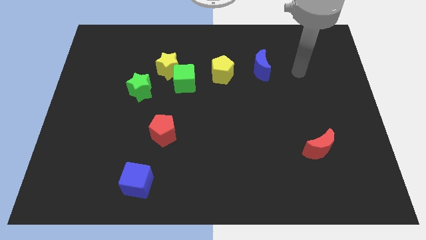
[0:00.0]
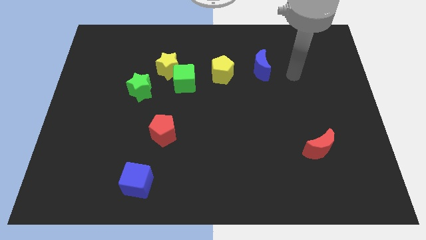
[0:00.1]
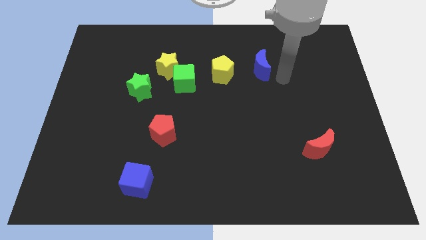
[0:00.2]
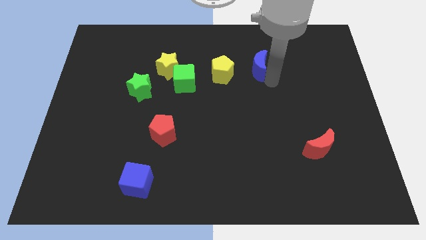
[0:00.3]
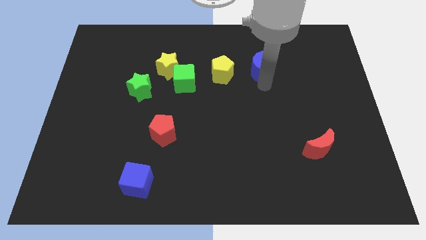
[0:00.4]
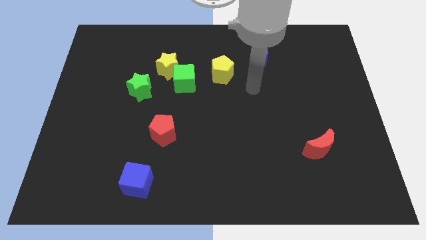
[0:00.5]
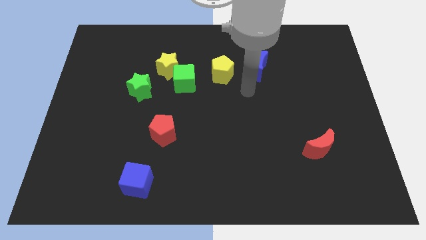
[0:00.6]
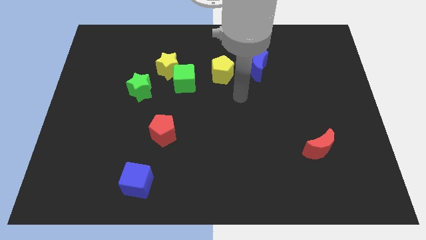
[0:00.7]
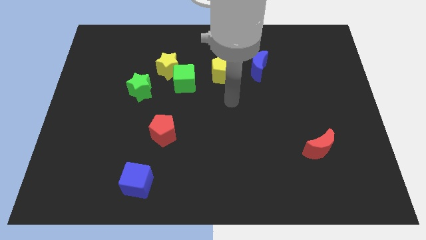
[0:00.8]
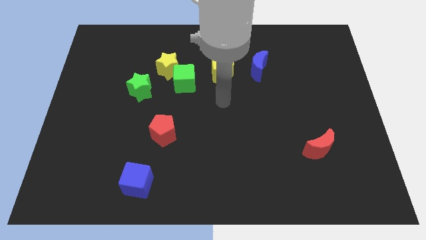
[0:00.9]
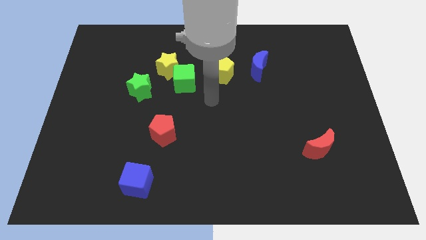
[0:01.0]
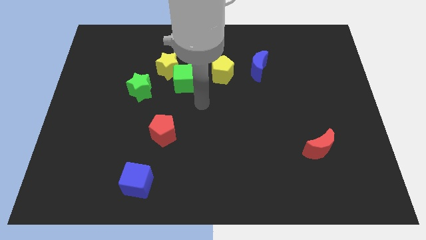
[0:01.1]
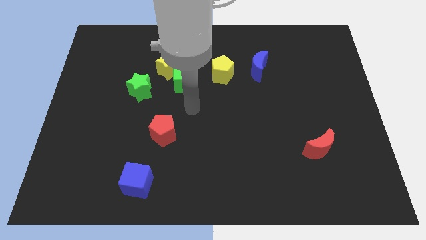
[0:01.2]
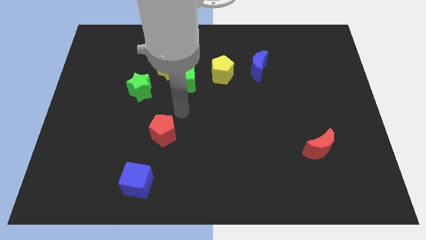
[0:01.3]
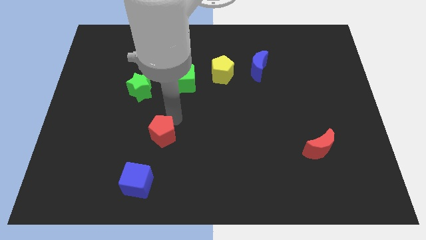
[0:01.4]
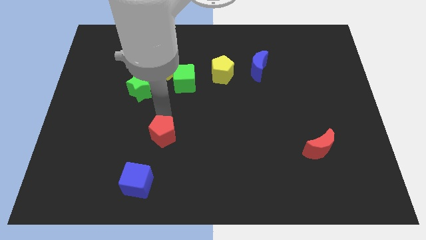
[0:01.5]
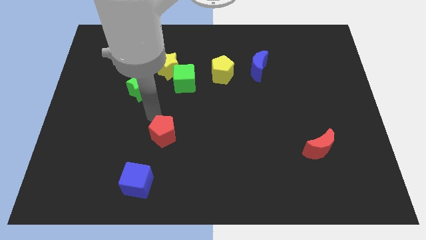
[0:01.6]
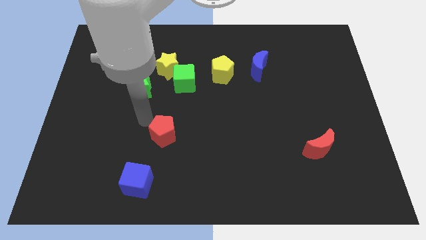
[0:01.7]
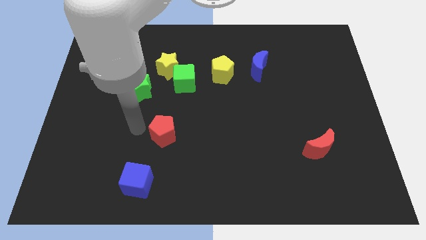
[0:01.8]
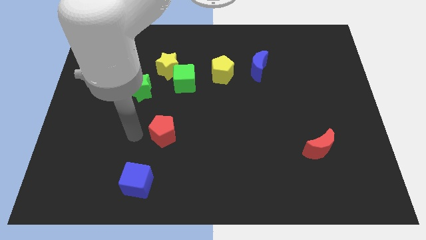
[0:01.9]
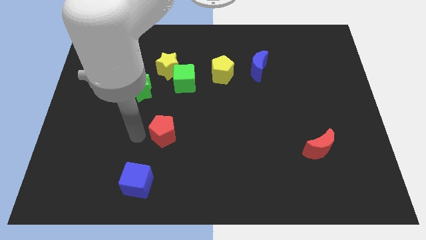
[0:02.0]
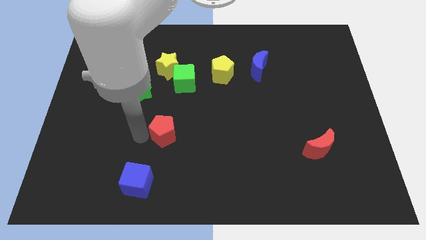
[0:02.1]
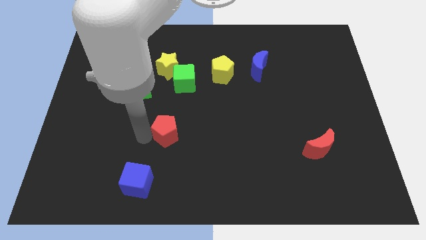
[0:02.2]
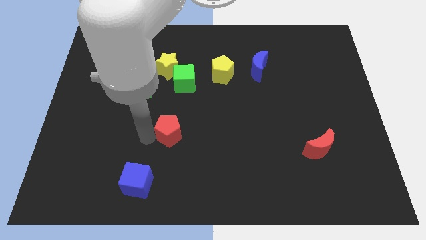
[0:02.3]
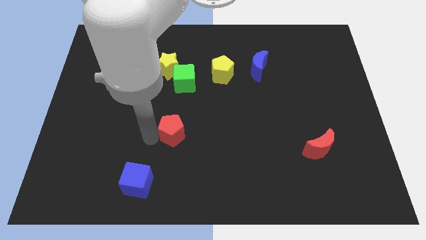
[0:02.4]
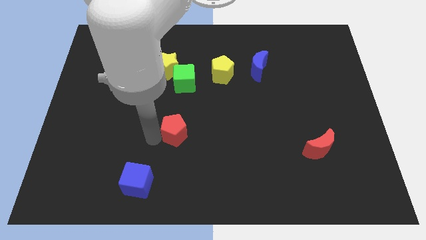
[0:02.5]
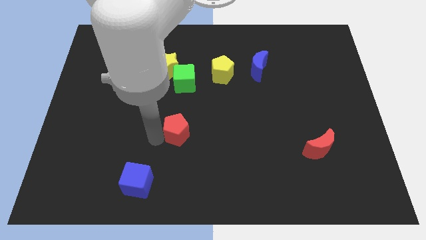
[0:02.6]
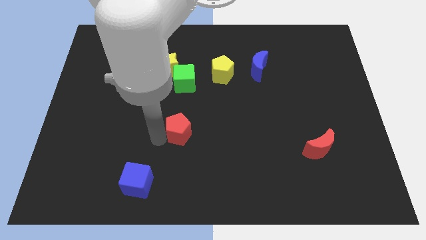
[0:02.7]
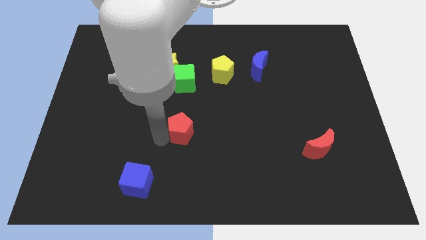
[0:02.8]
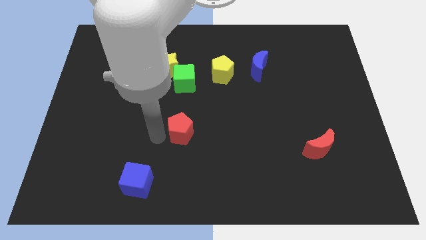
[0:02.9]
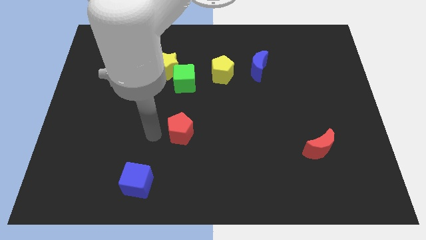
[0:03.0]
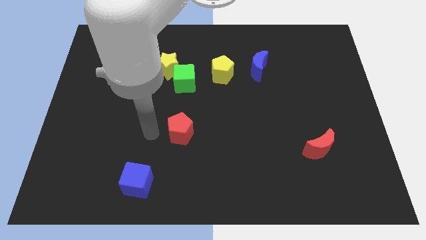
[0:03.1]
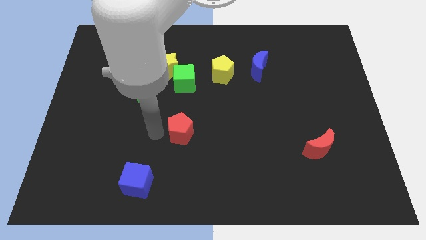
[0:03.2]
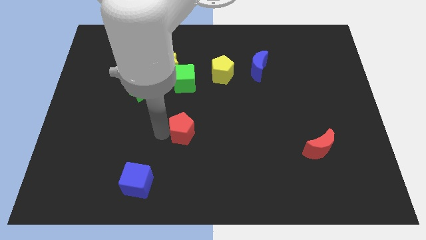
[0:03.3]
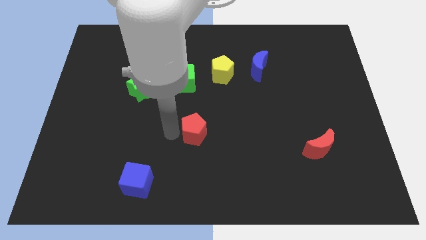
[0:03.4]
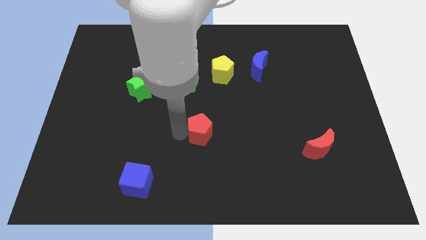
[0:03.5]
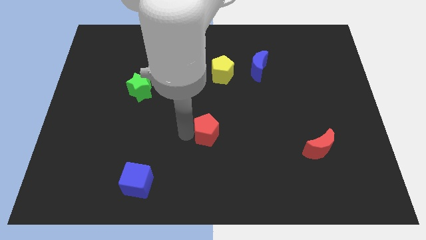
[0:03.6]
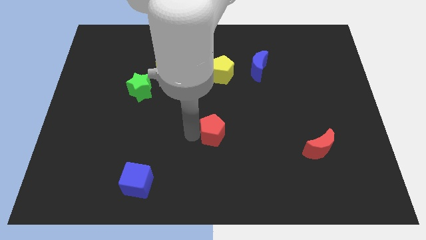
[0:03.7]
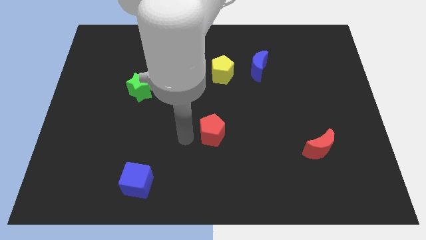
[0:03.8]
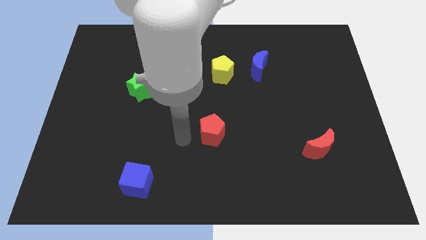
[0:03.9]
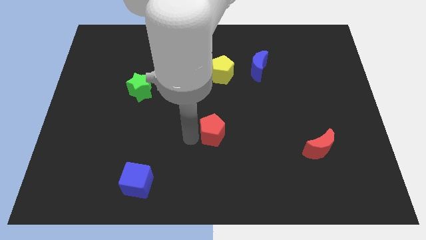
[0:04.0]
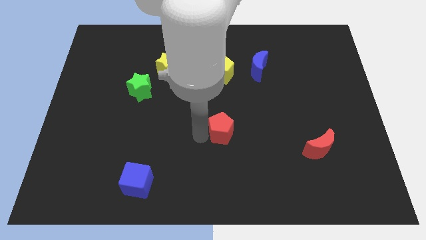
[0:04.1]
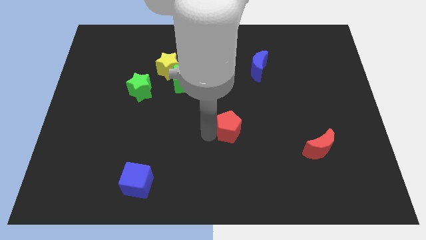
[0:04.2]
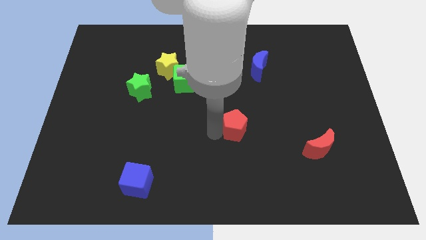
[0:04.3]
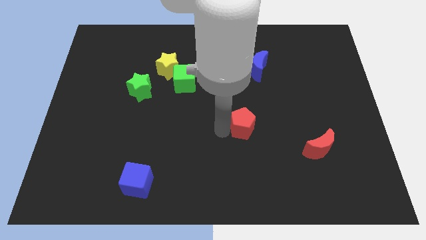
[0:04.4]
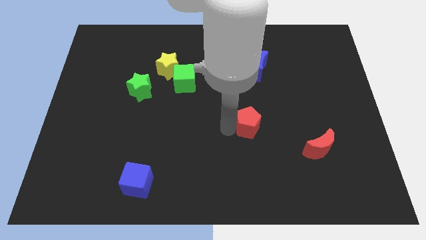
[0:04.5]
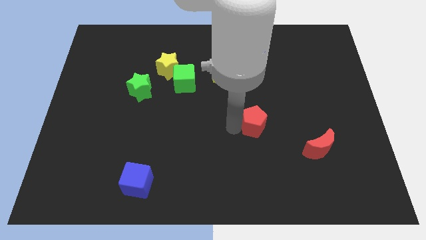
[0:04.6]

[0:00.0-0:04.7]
slide the red pentagon right

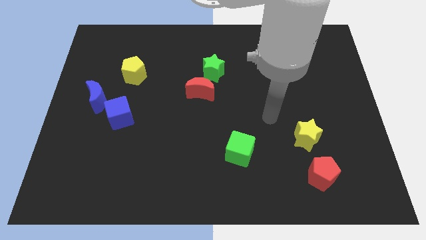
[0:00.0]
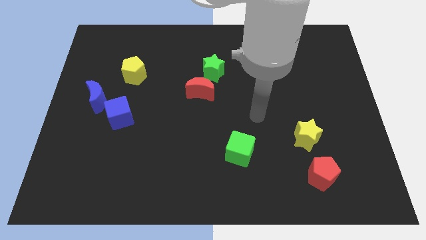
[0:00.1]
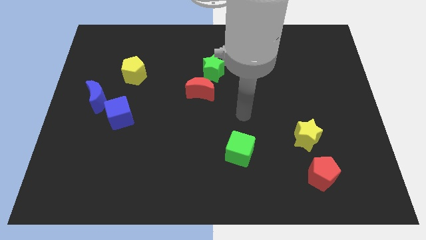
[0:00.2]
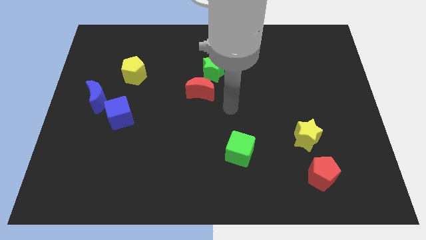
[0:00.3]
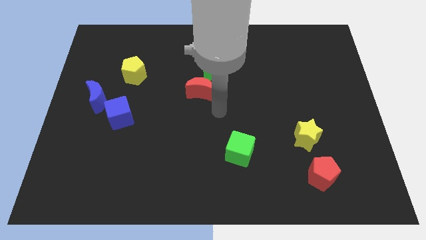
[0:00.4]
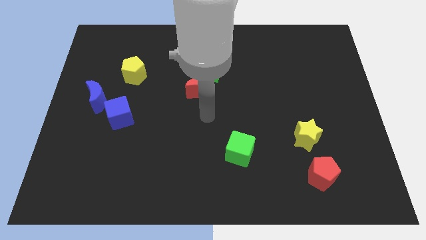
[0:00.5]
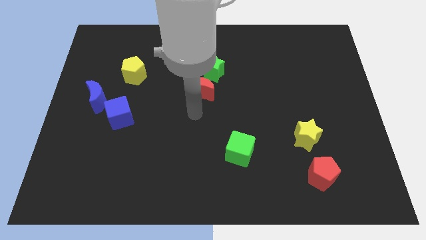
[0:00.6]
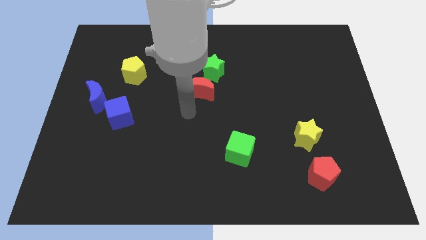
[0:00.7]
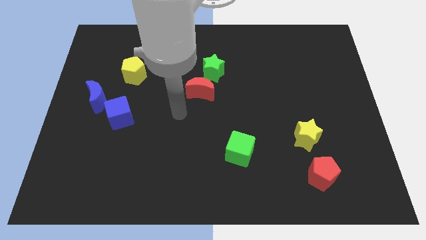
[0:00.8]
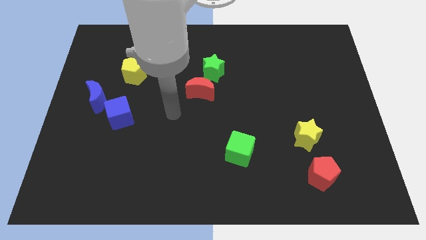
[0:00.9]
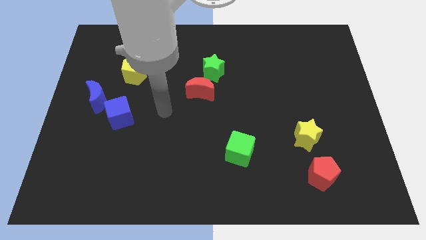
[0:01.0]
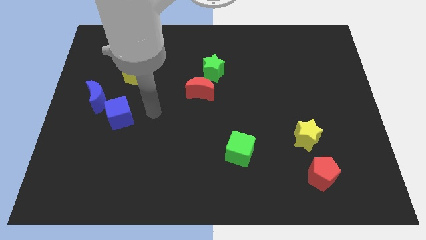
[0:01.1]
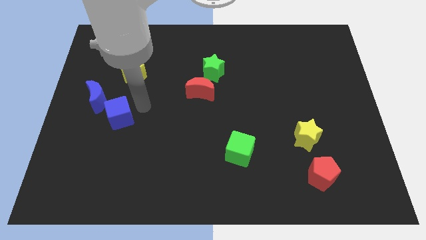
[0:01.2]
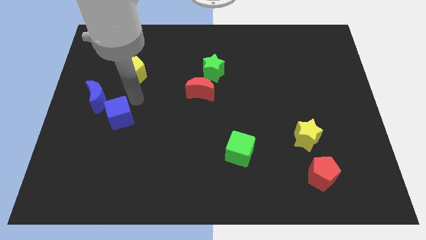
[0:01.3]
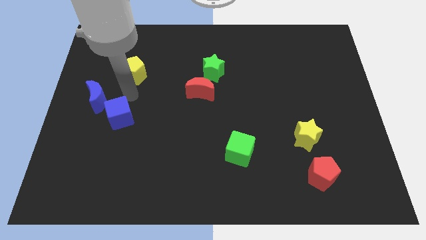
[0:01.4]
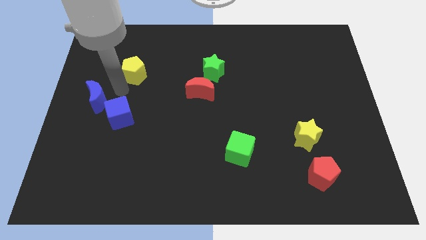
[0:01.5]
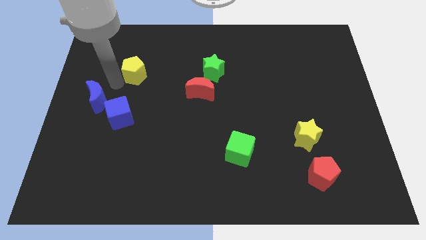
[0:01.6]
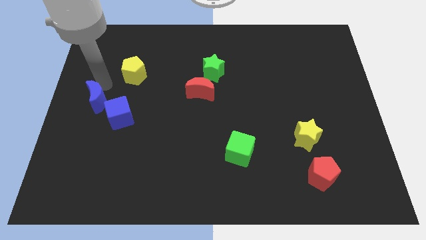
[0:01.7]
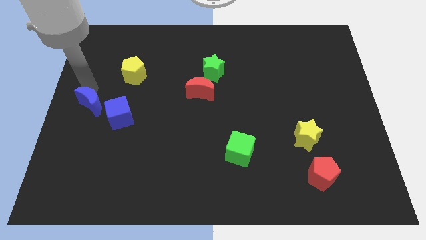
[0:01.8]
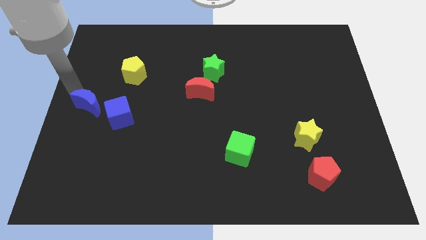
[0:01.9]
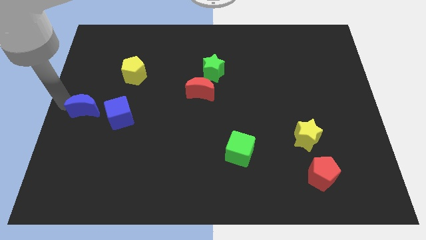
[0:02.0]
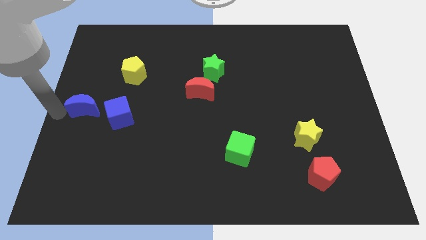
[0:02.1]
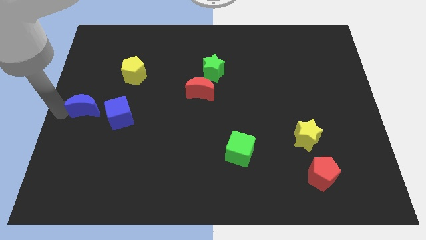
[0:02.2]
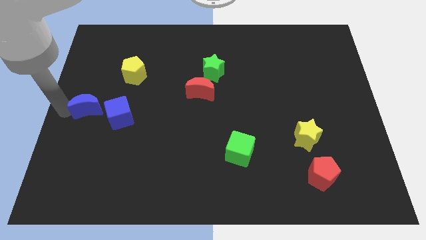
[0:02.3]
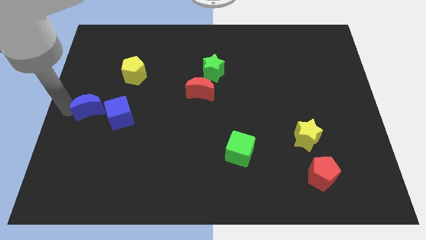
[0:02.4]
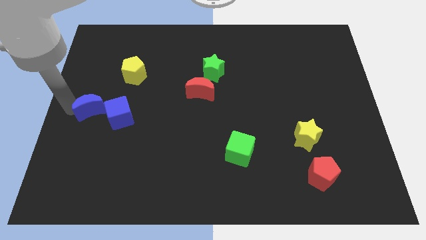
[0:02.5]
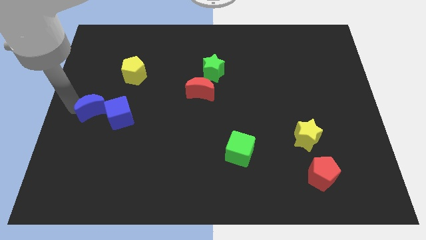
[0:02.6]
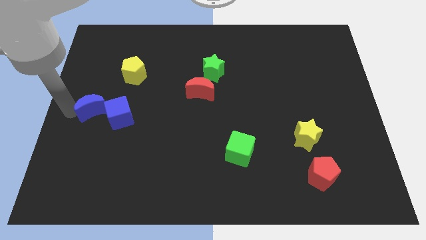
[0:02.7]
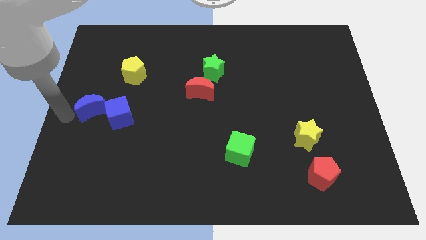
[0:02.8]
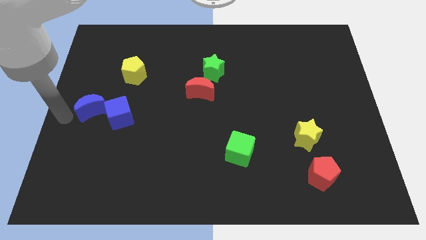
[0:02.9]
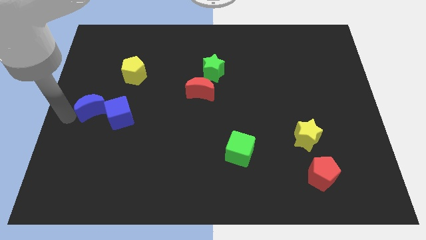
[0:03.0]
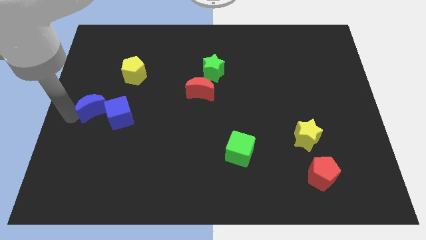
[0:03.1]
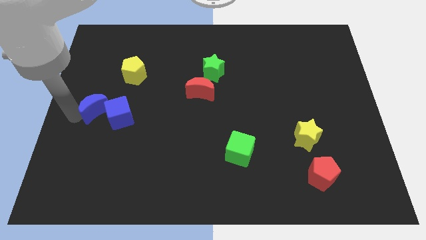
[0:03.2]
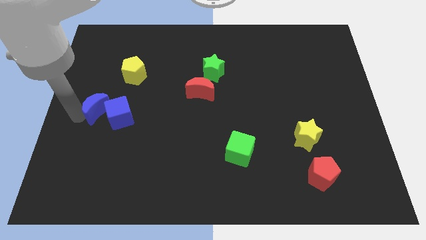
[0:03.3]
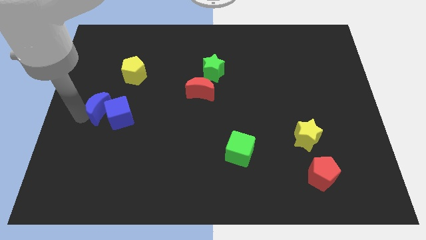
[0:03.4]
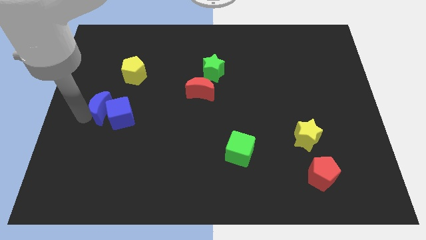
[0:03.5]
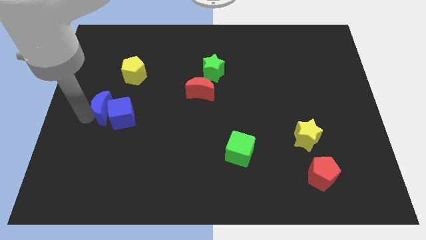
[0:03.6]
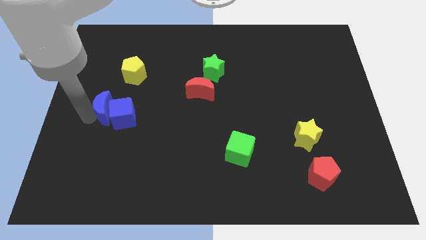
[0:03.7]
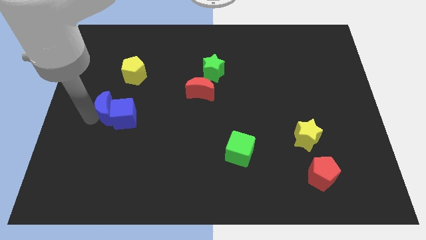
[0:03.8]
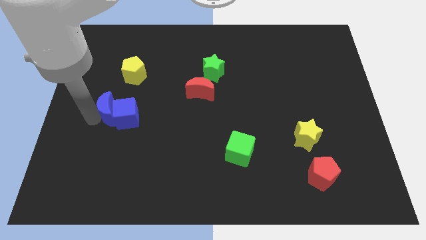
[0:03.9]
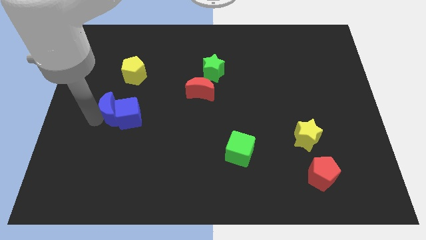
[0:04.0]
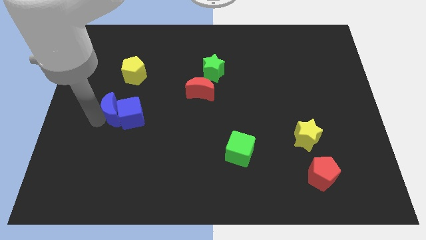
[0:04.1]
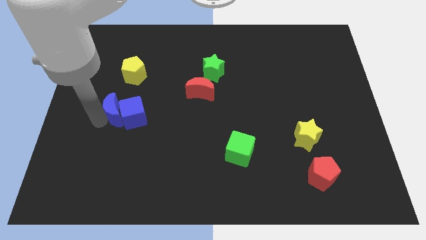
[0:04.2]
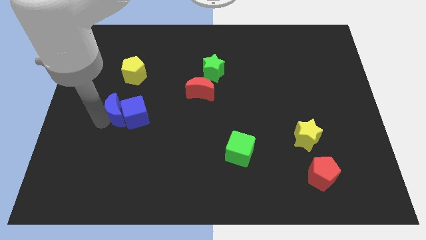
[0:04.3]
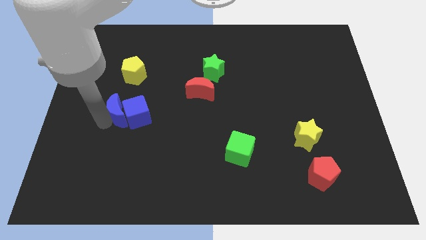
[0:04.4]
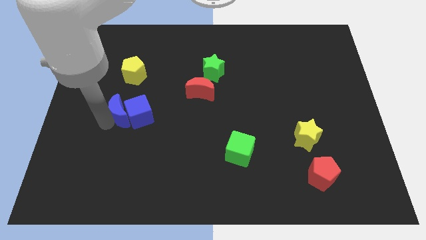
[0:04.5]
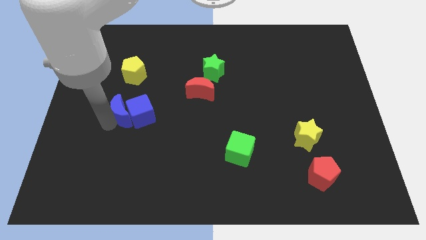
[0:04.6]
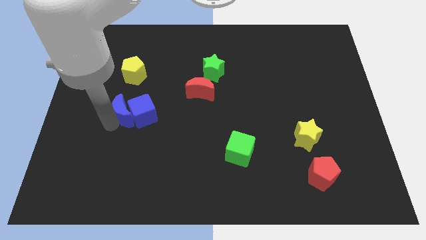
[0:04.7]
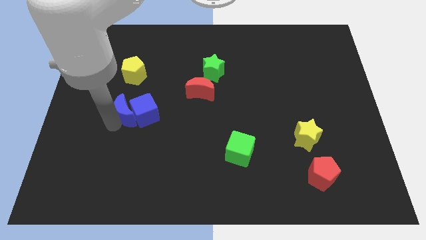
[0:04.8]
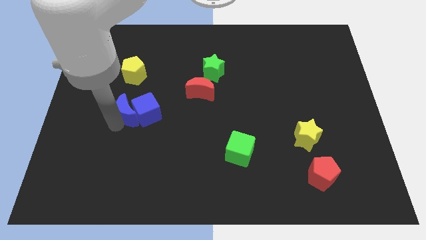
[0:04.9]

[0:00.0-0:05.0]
slightly slide the blue moon to the right
